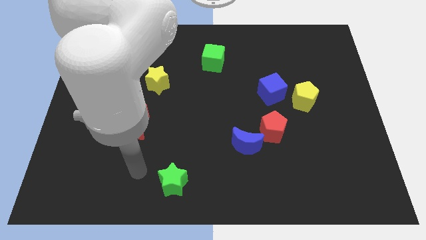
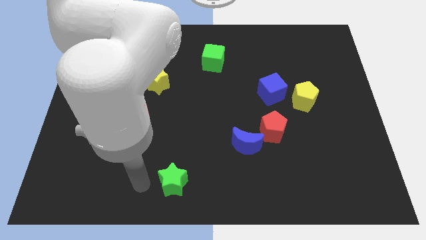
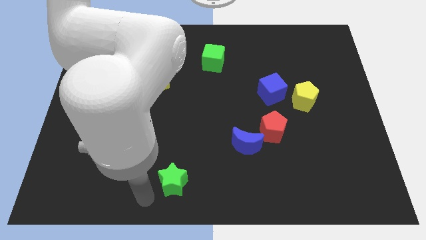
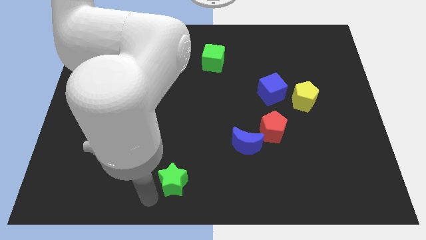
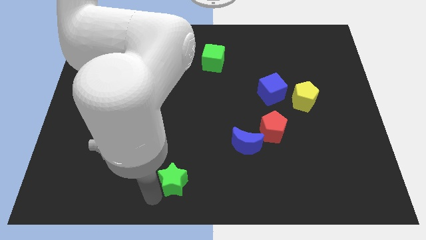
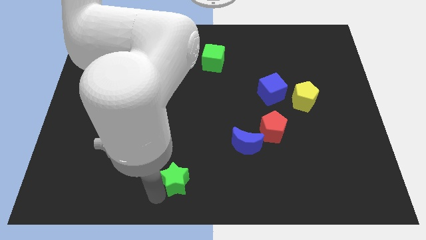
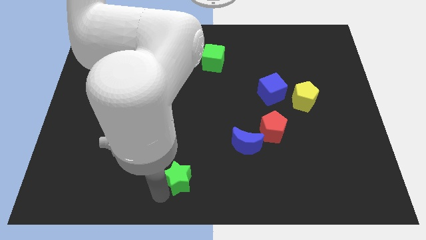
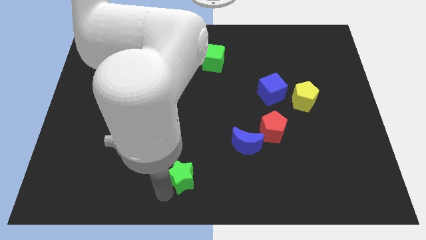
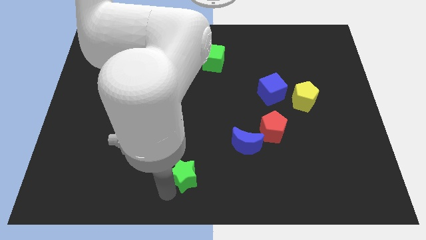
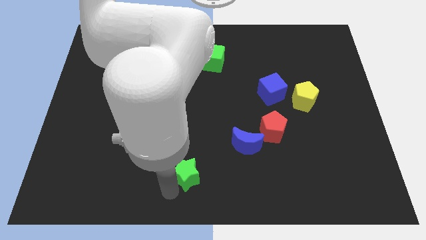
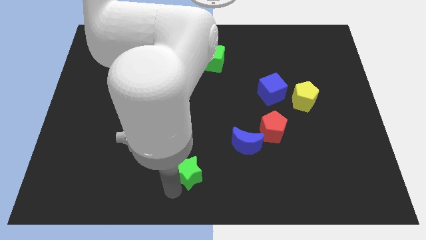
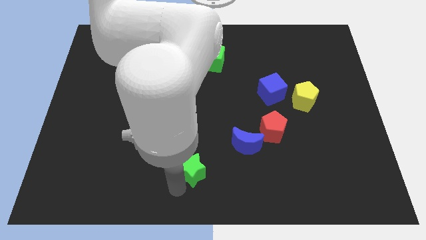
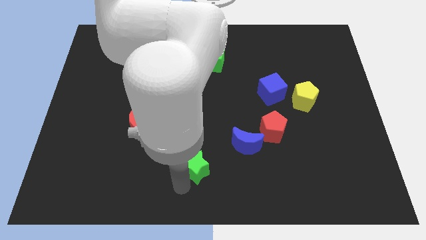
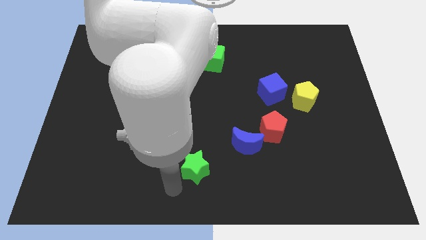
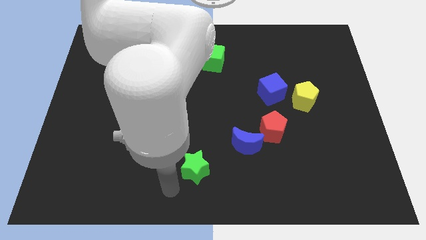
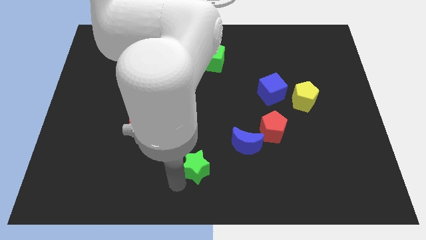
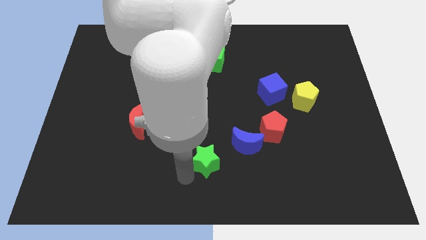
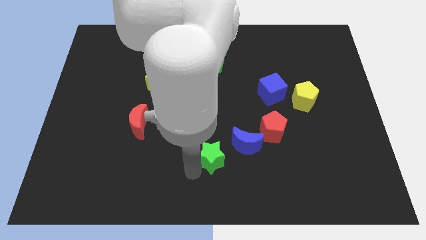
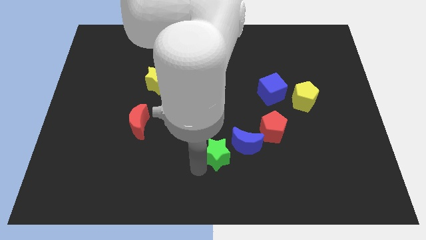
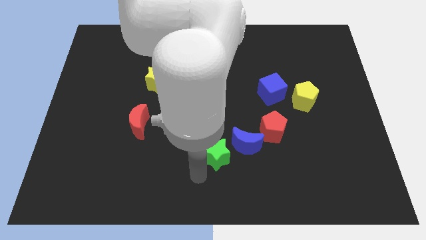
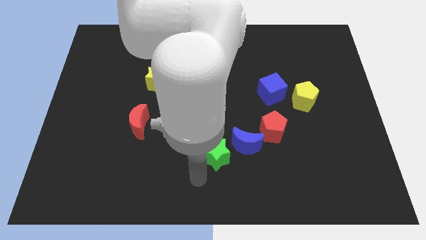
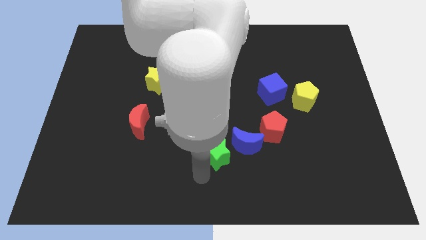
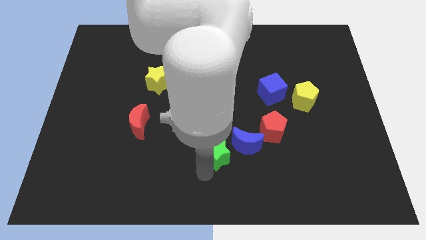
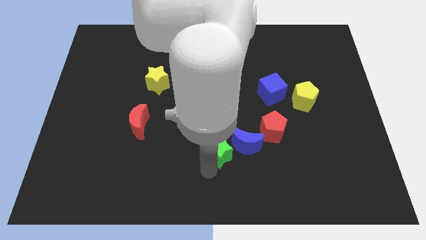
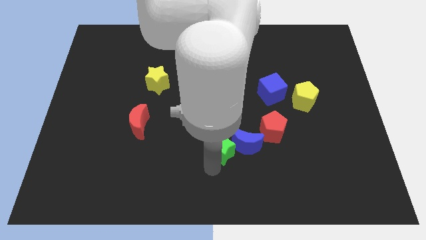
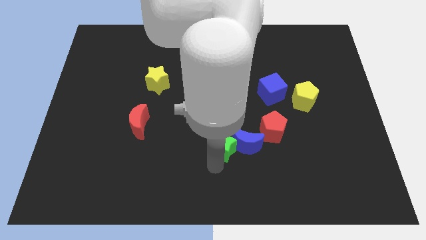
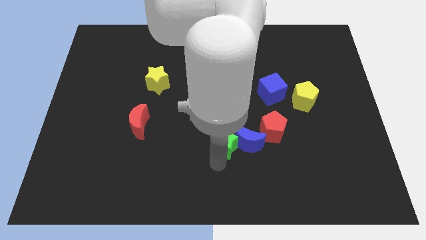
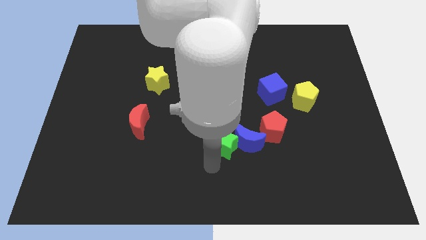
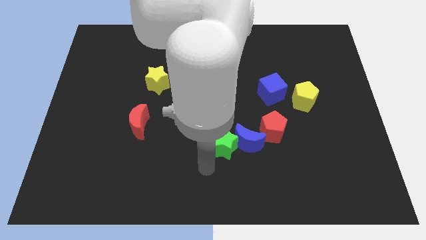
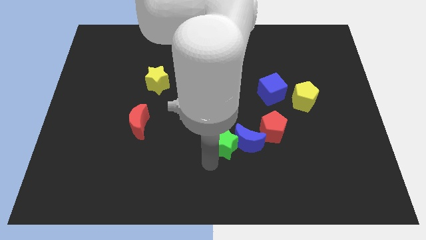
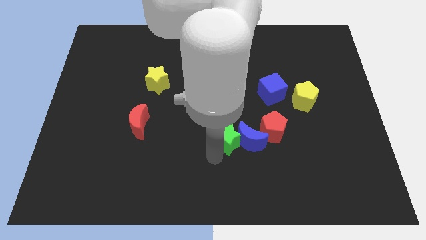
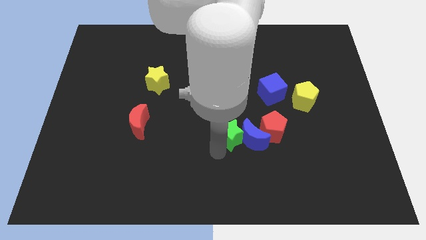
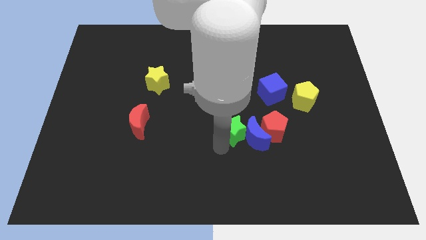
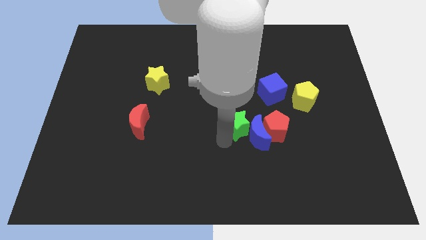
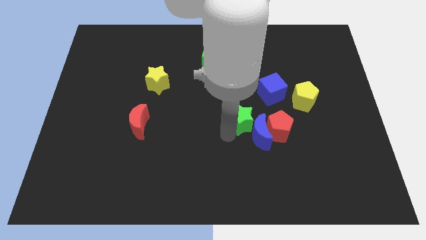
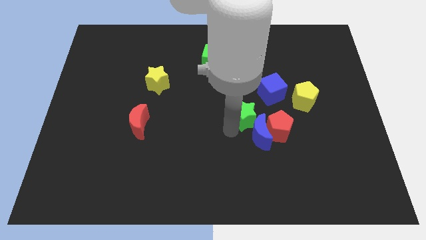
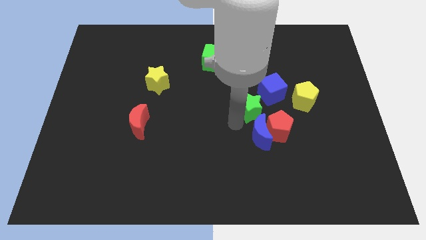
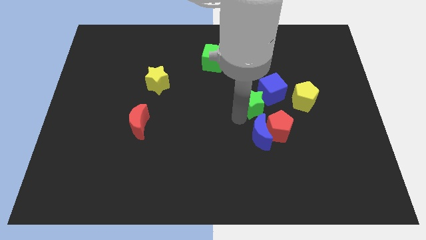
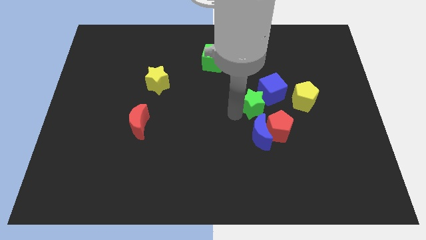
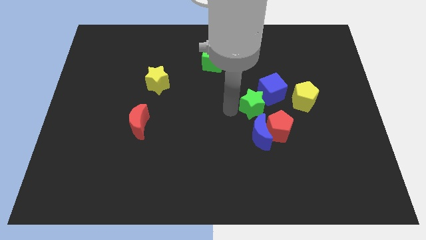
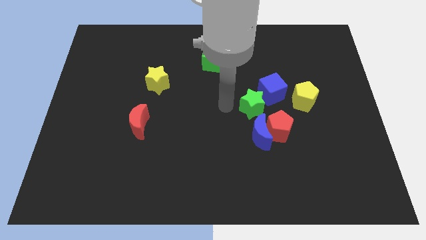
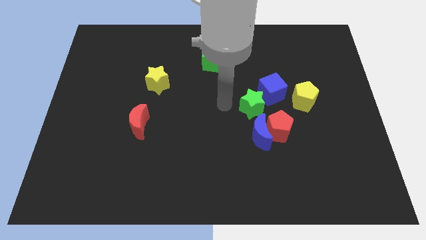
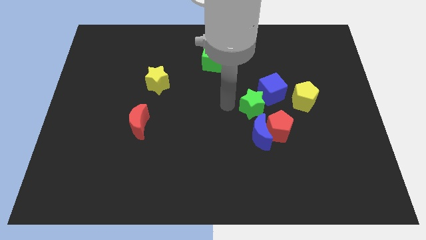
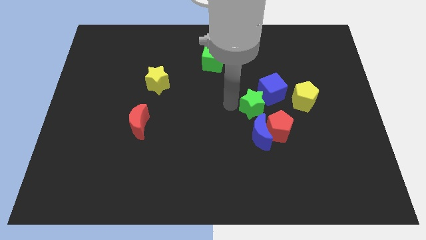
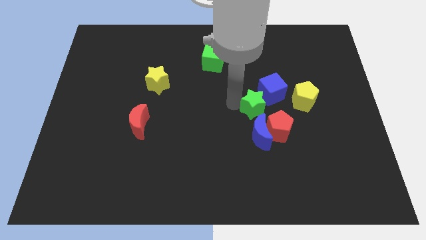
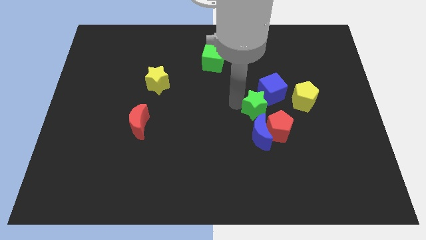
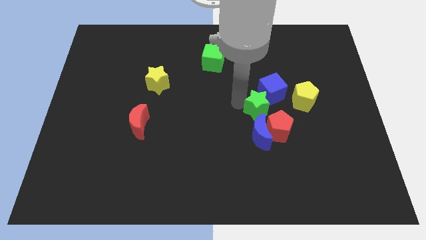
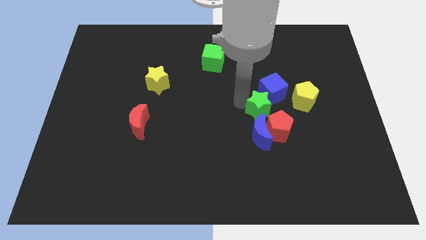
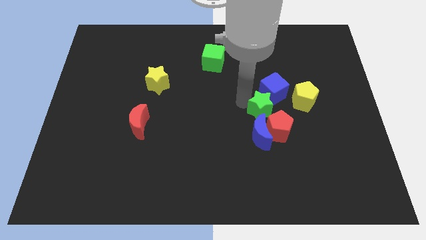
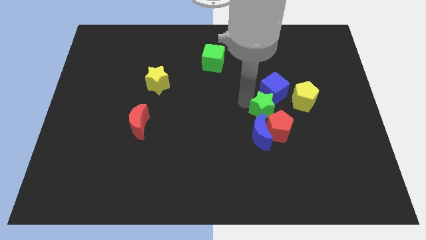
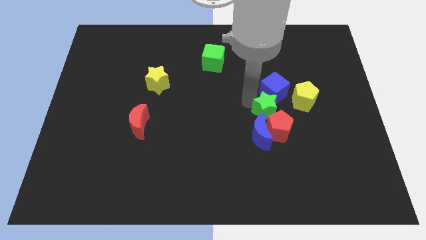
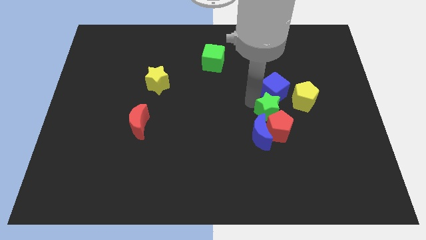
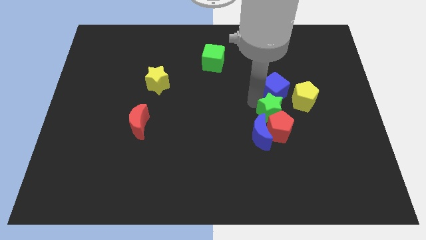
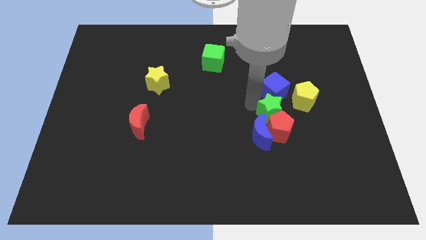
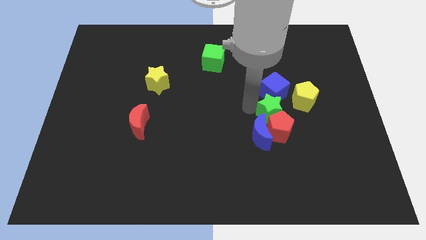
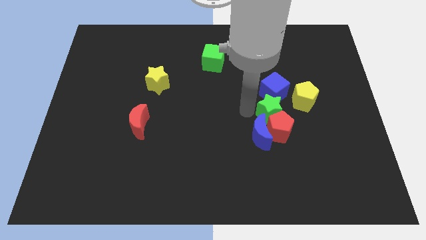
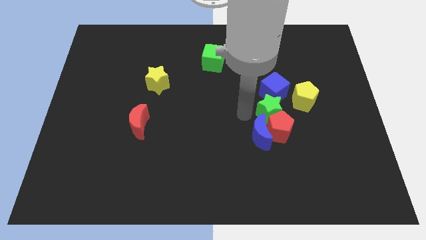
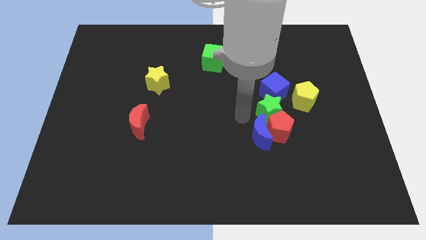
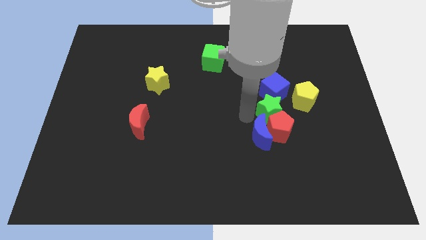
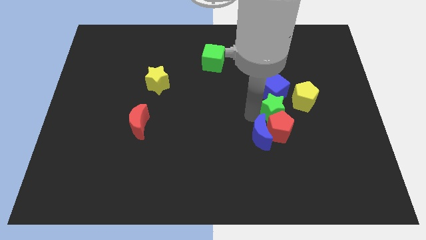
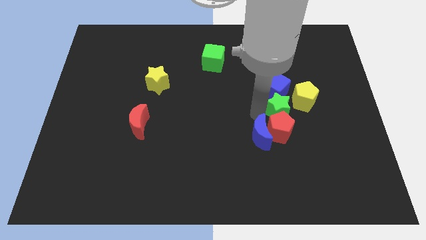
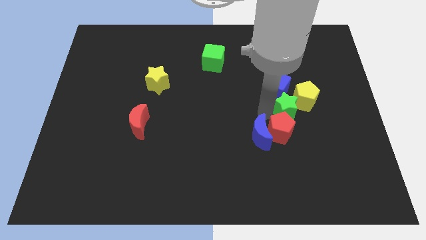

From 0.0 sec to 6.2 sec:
put the green star close to the yellow pentagon

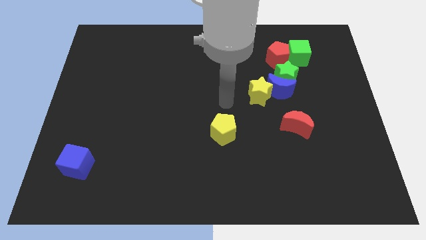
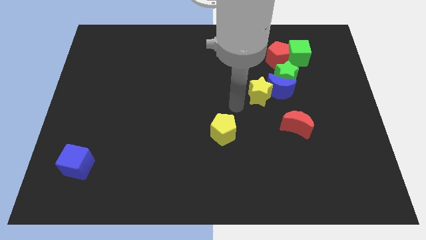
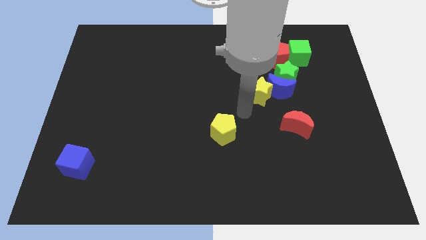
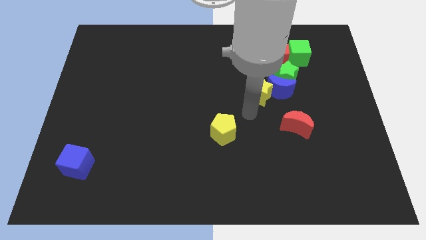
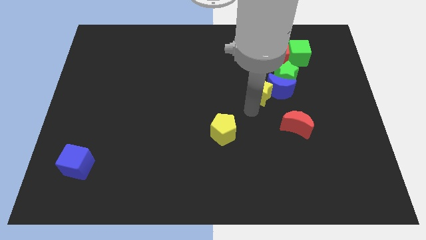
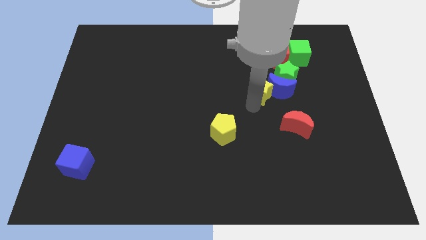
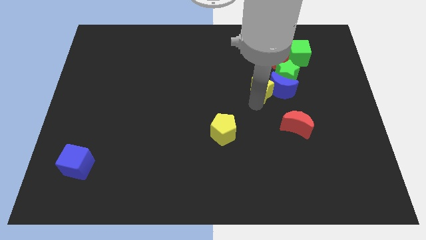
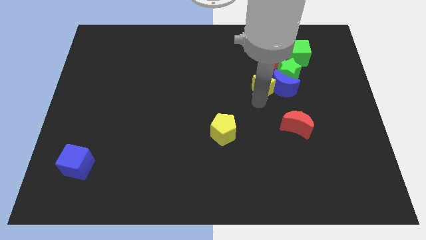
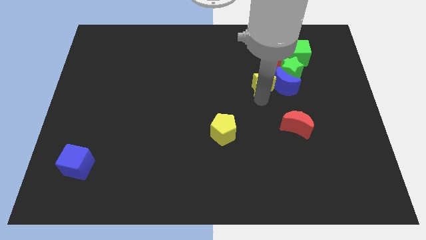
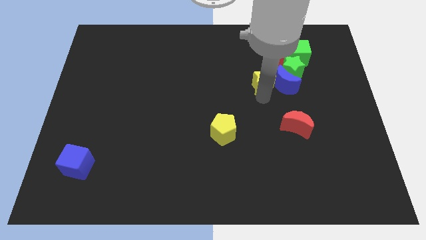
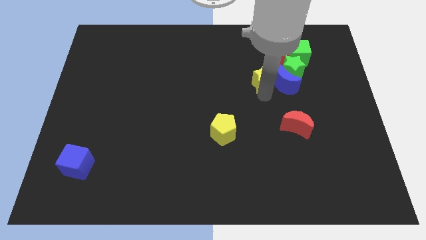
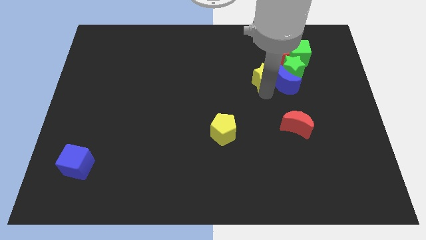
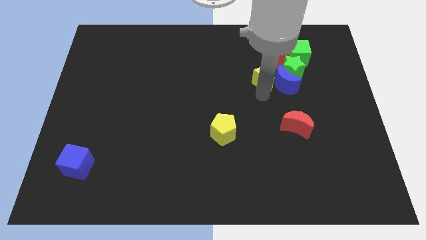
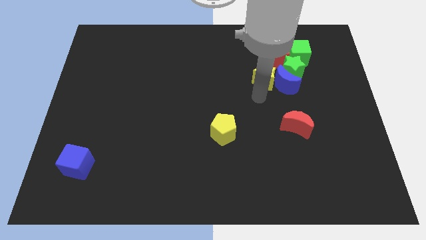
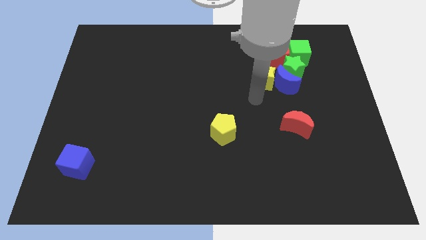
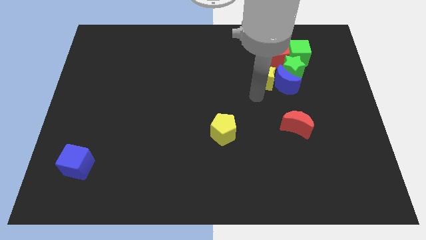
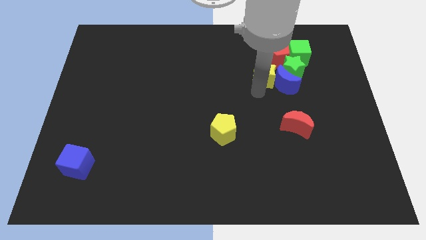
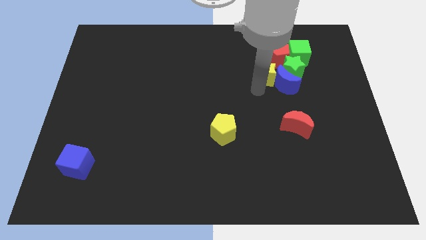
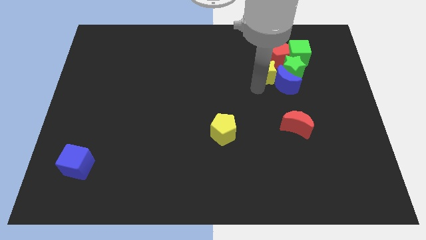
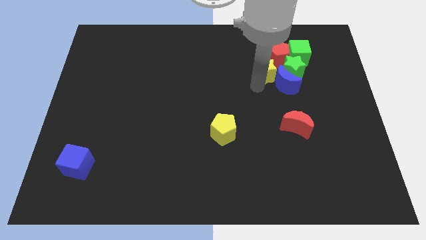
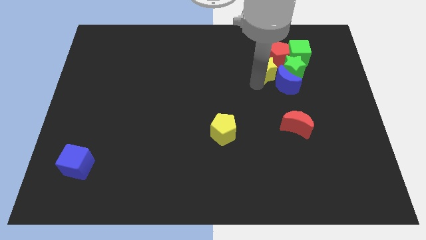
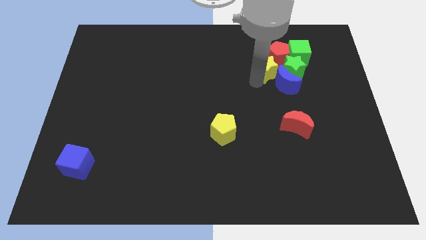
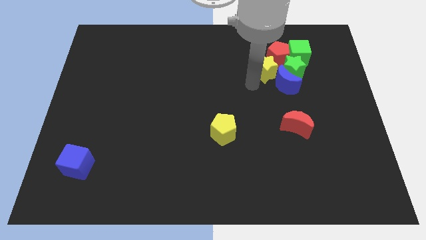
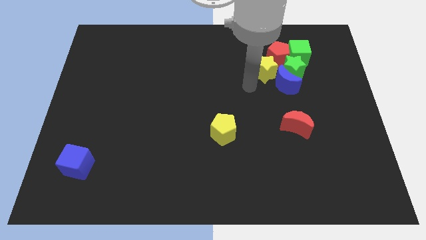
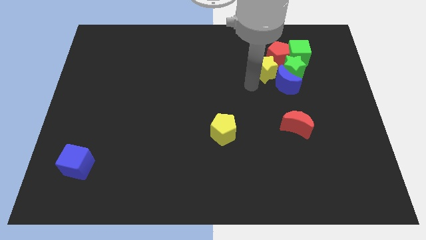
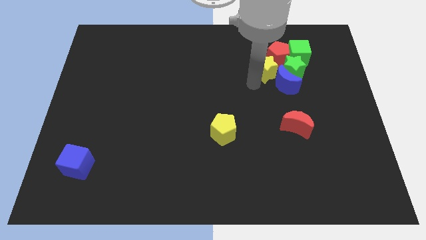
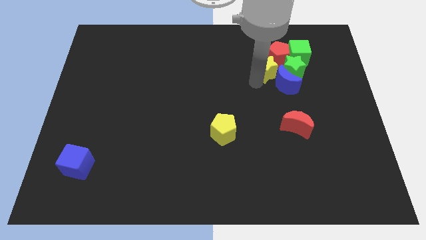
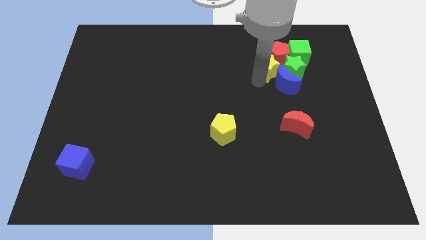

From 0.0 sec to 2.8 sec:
put the yellow star next to the red pentagon
